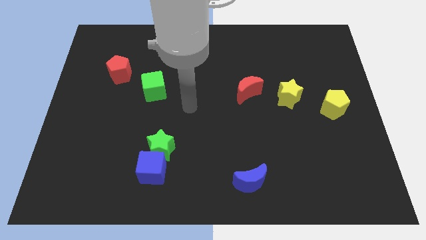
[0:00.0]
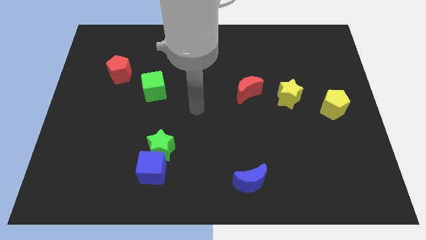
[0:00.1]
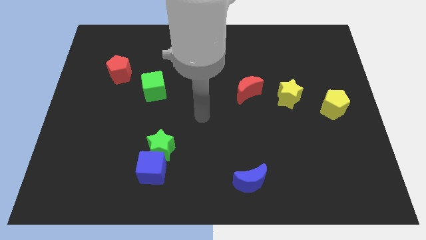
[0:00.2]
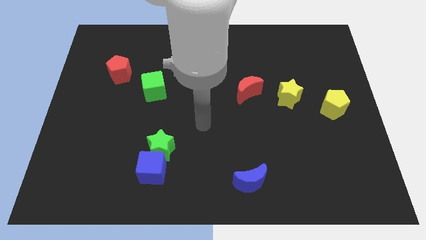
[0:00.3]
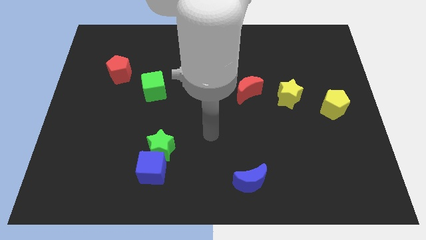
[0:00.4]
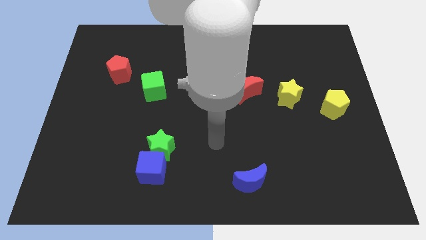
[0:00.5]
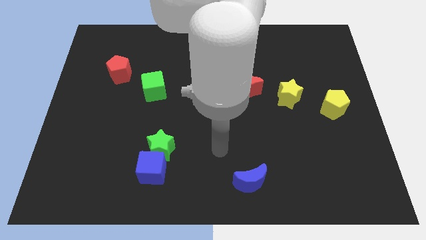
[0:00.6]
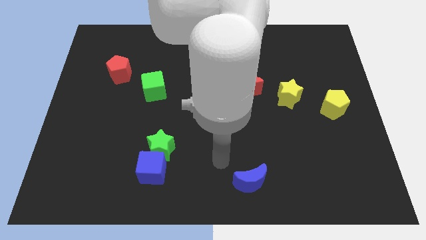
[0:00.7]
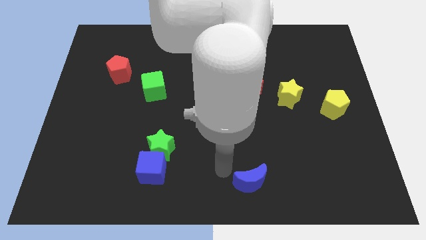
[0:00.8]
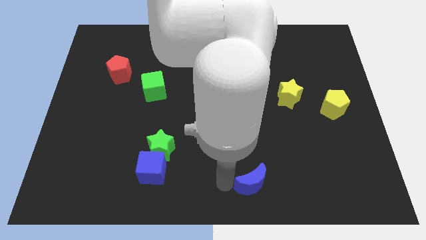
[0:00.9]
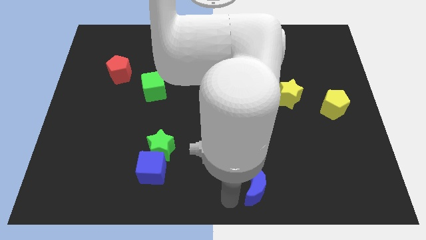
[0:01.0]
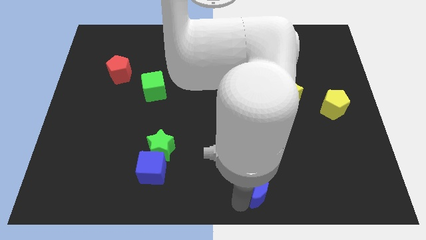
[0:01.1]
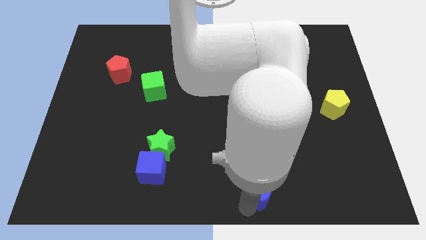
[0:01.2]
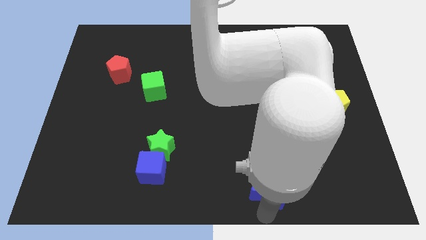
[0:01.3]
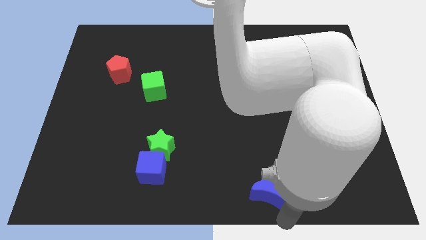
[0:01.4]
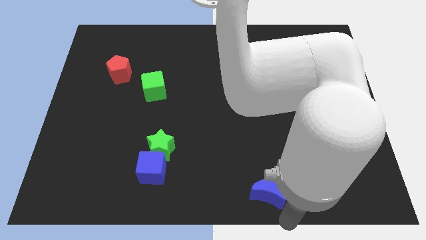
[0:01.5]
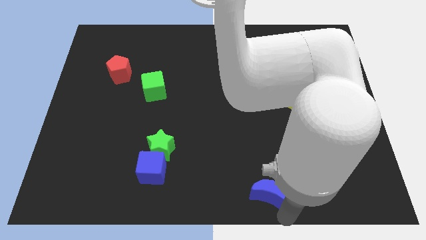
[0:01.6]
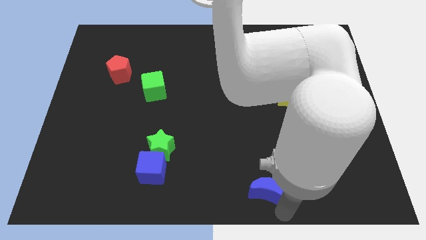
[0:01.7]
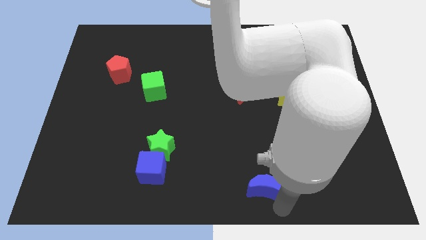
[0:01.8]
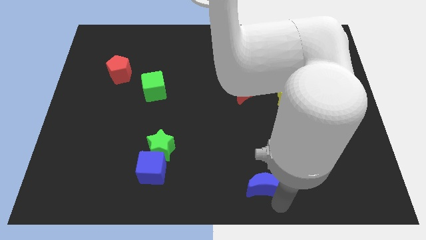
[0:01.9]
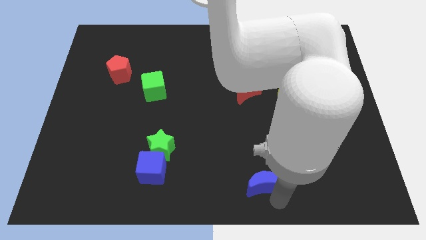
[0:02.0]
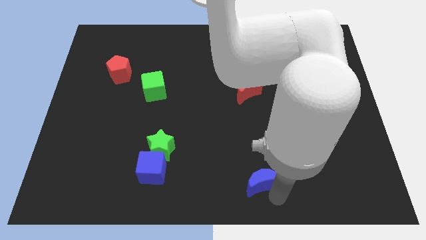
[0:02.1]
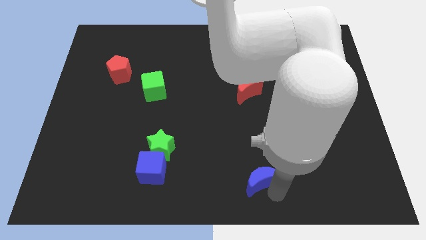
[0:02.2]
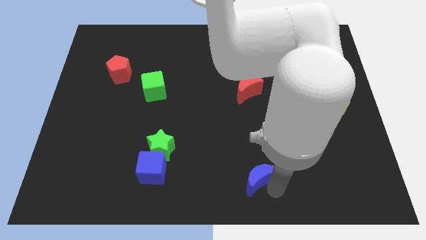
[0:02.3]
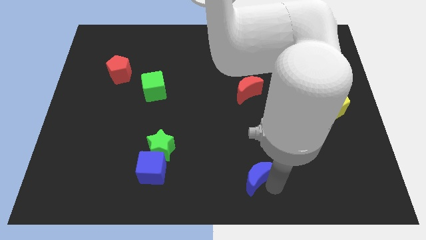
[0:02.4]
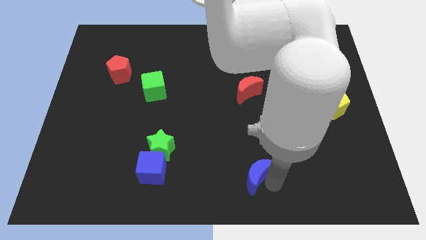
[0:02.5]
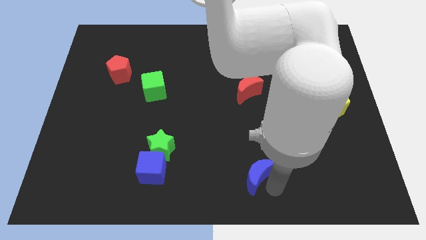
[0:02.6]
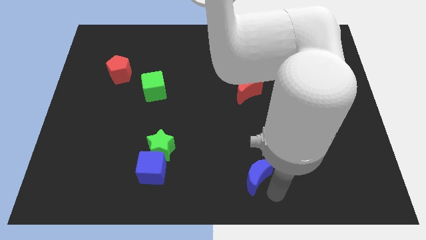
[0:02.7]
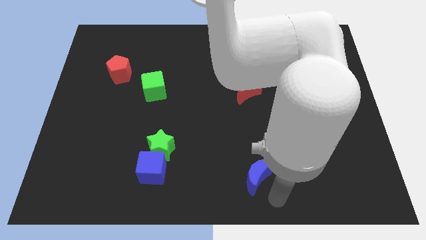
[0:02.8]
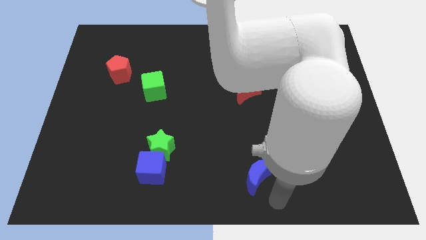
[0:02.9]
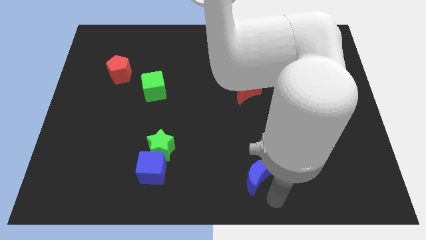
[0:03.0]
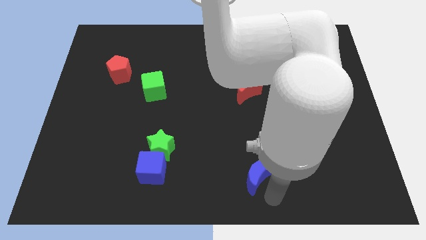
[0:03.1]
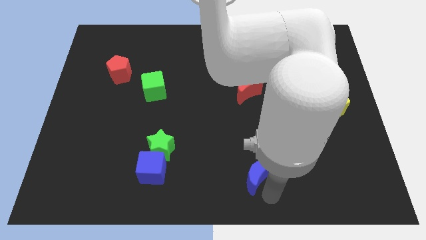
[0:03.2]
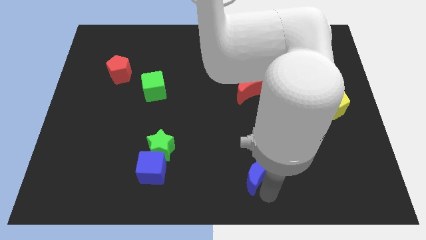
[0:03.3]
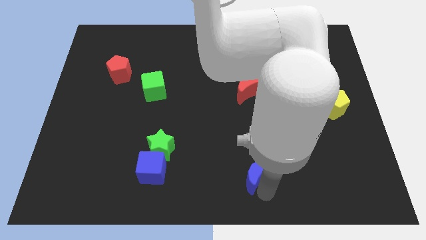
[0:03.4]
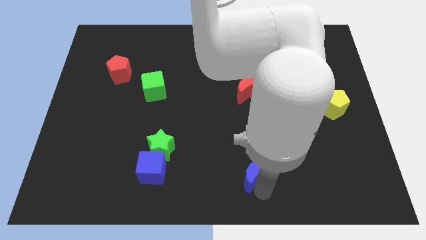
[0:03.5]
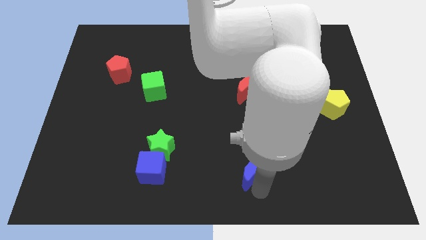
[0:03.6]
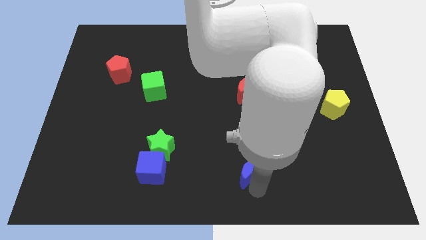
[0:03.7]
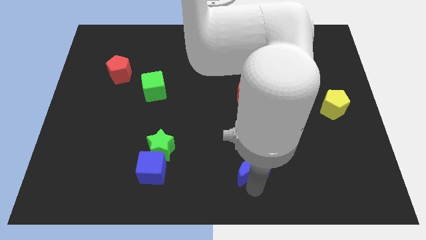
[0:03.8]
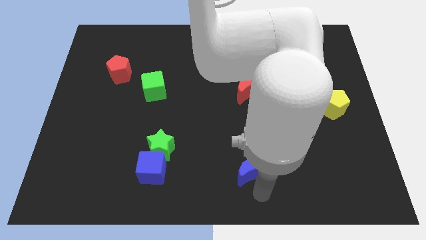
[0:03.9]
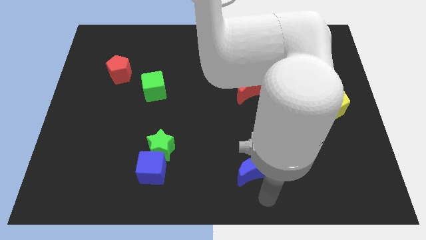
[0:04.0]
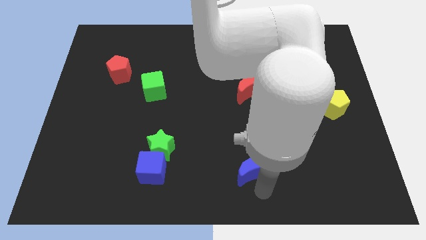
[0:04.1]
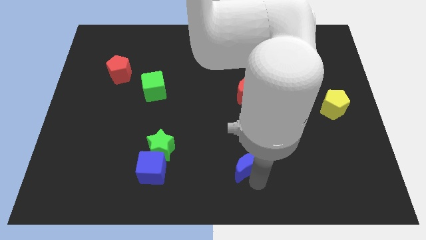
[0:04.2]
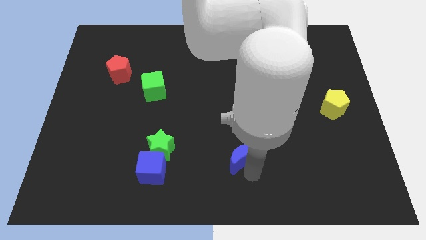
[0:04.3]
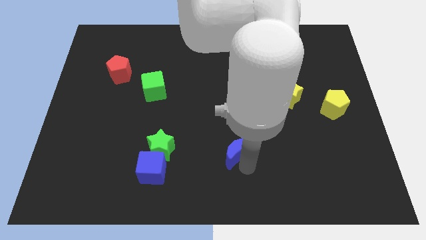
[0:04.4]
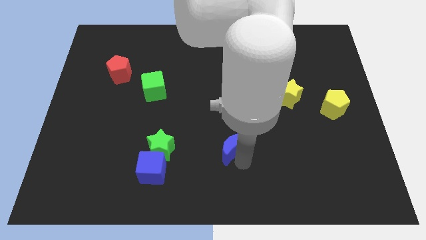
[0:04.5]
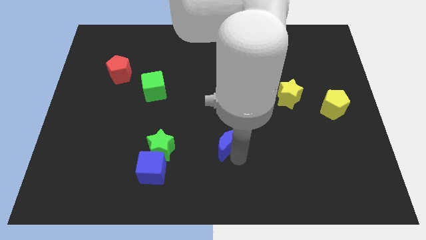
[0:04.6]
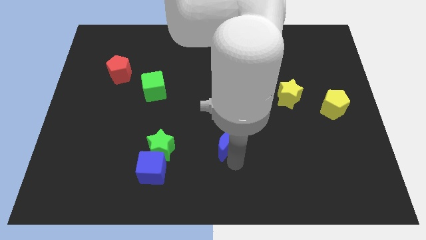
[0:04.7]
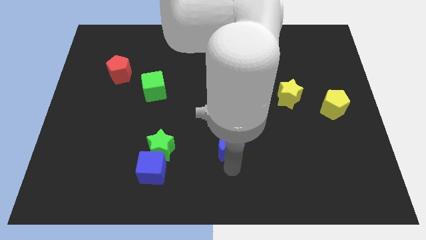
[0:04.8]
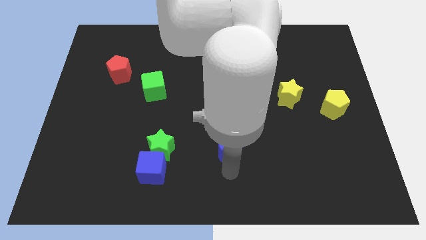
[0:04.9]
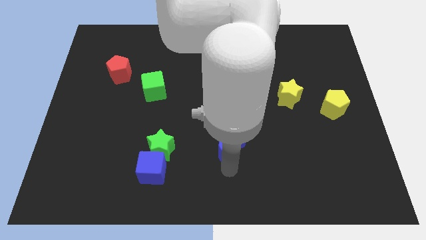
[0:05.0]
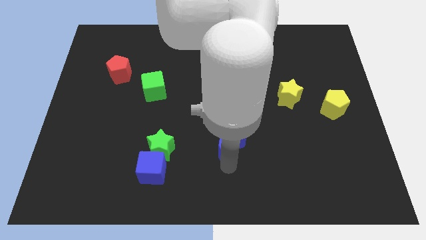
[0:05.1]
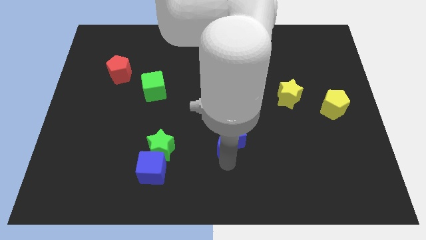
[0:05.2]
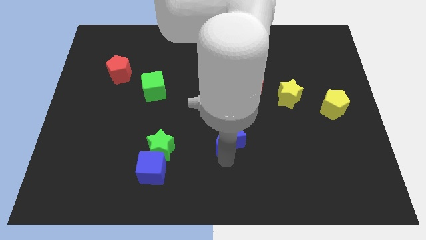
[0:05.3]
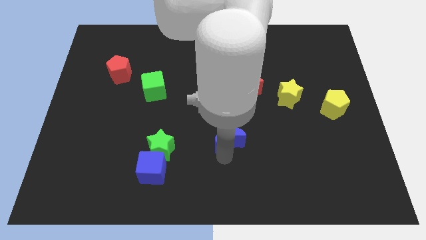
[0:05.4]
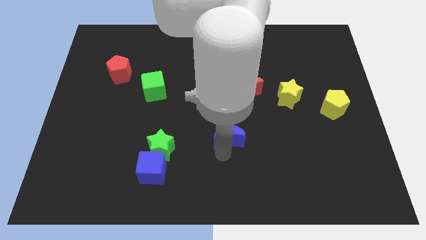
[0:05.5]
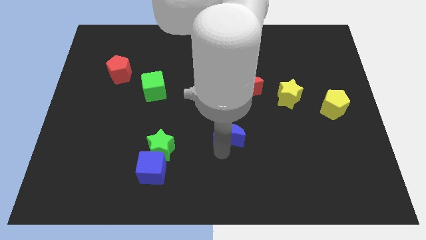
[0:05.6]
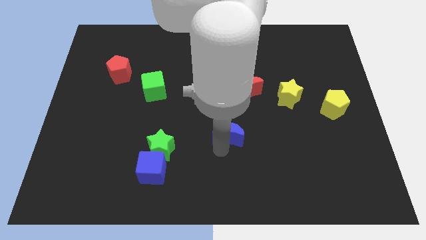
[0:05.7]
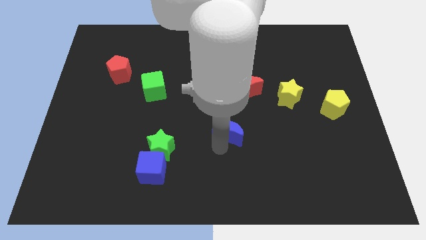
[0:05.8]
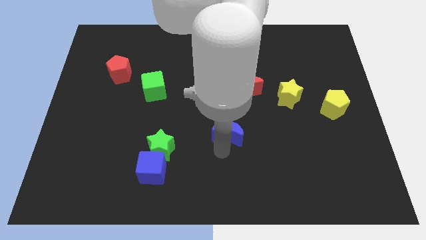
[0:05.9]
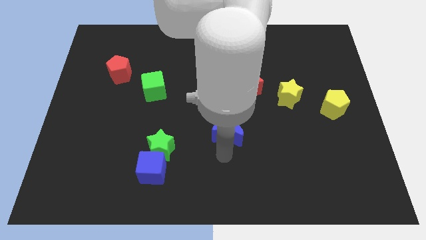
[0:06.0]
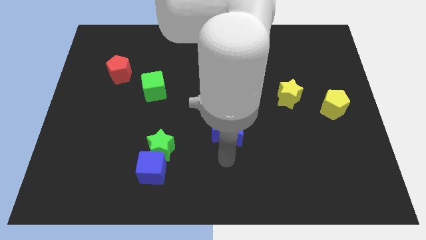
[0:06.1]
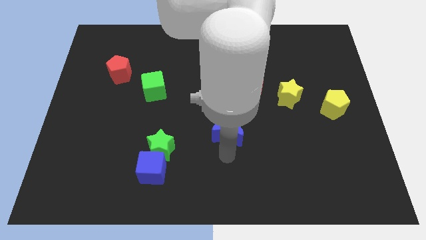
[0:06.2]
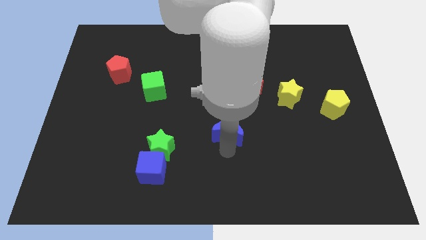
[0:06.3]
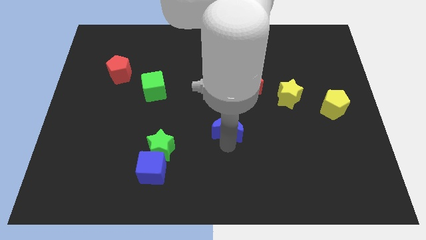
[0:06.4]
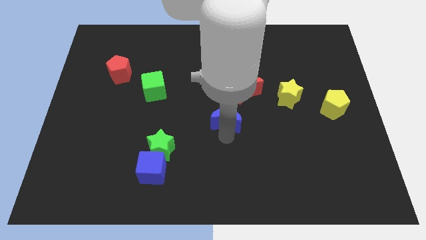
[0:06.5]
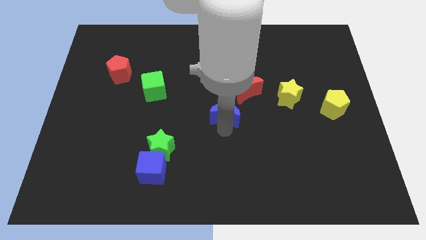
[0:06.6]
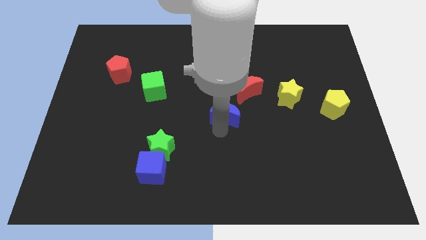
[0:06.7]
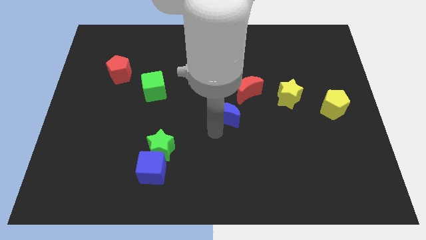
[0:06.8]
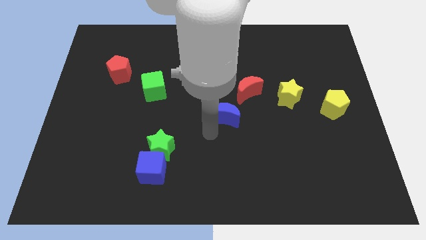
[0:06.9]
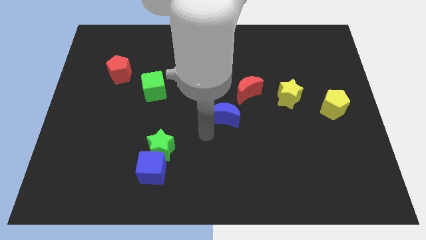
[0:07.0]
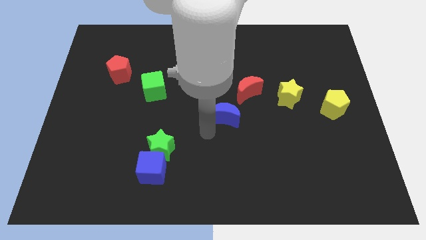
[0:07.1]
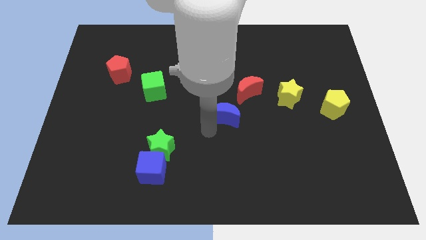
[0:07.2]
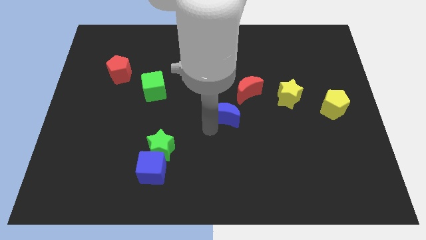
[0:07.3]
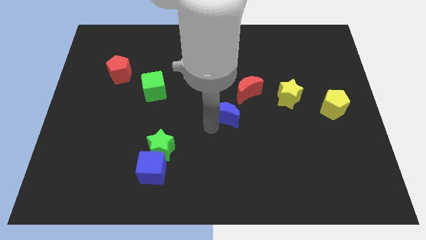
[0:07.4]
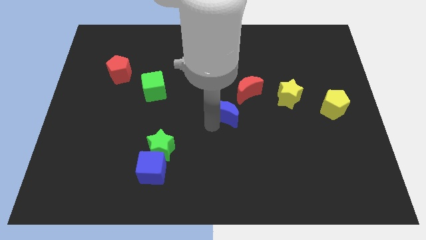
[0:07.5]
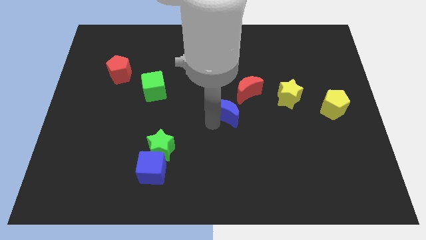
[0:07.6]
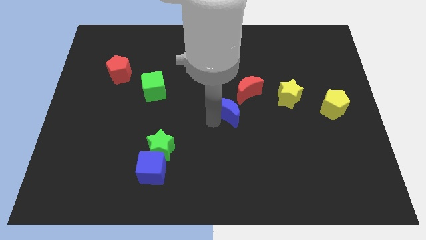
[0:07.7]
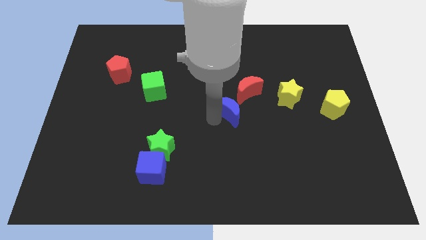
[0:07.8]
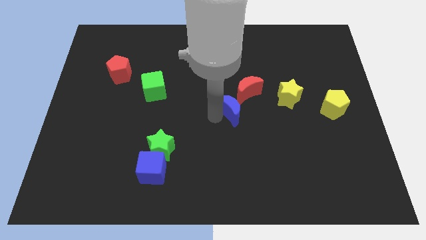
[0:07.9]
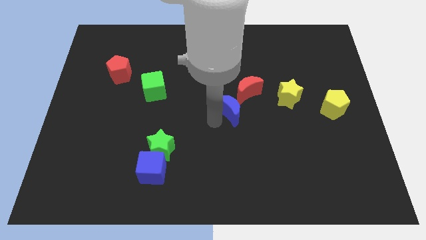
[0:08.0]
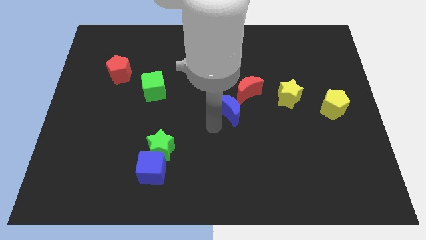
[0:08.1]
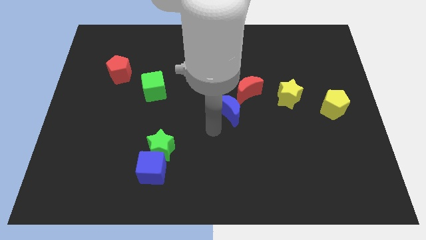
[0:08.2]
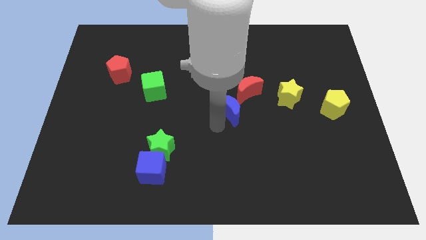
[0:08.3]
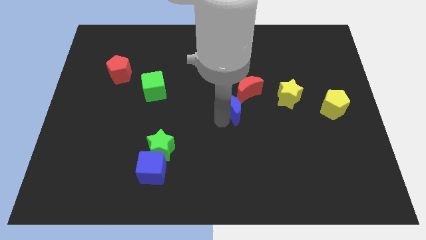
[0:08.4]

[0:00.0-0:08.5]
move the blue moon left of the yellow star
